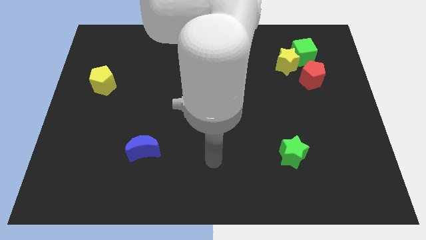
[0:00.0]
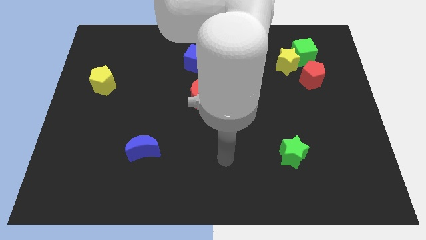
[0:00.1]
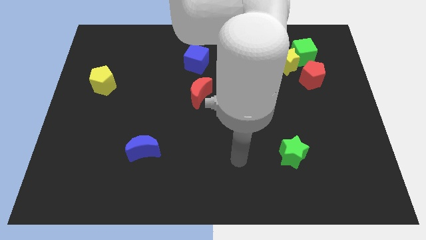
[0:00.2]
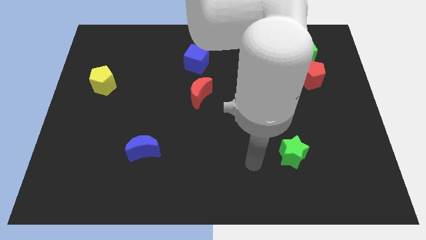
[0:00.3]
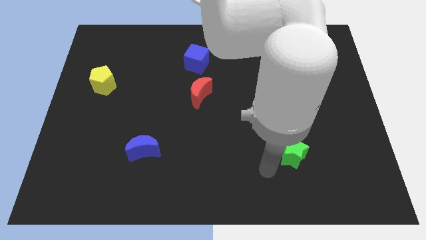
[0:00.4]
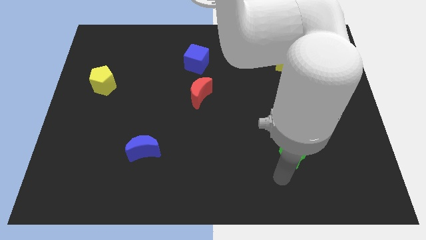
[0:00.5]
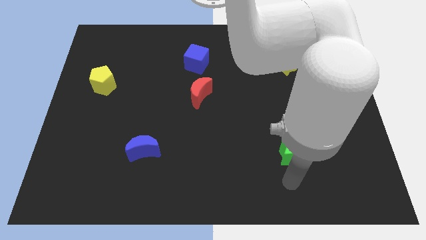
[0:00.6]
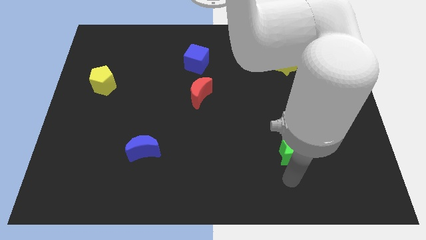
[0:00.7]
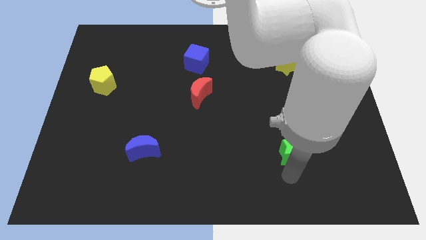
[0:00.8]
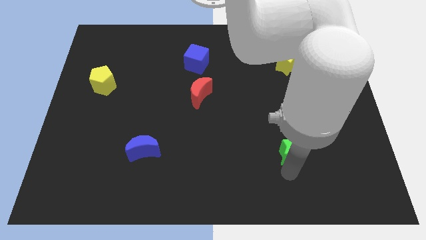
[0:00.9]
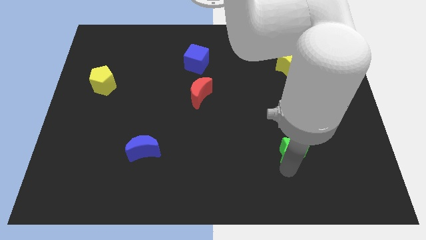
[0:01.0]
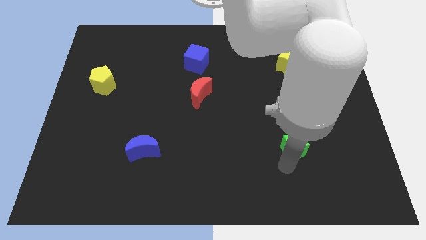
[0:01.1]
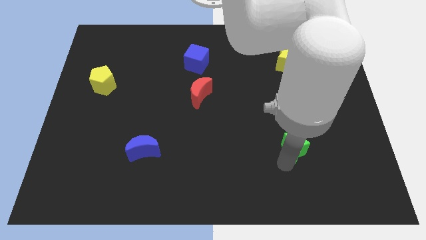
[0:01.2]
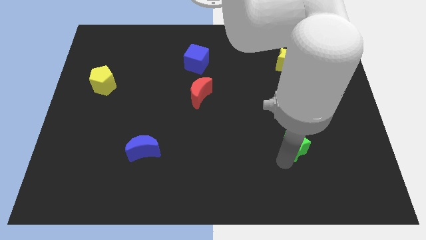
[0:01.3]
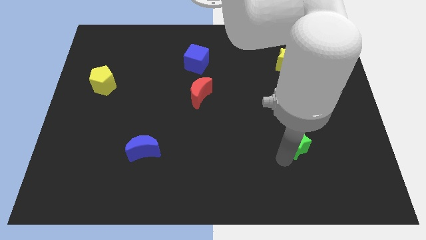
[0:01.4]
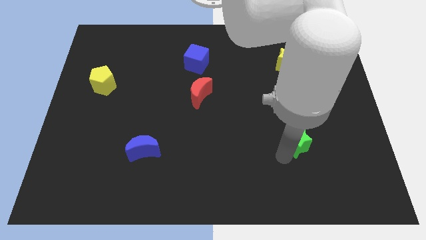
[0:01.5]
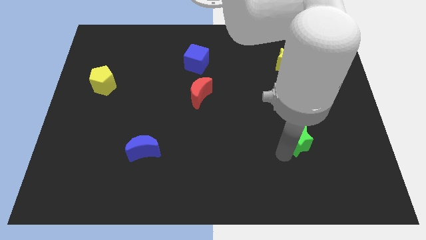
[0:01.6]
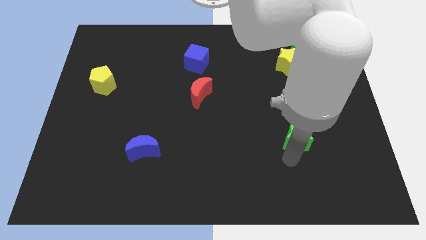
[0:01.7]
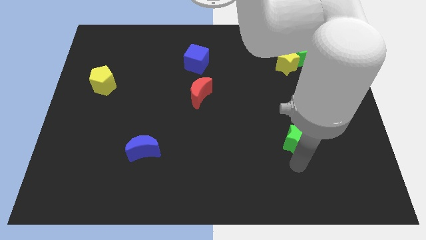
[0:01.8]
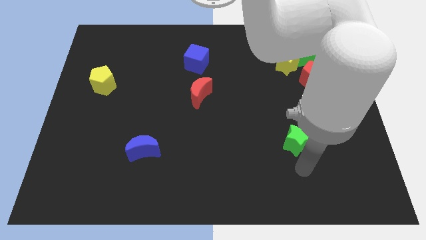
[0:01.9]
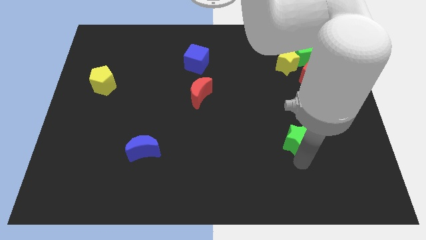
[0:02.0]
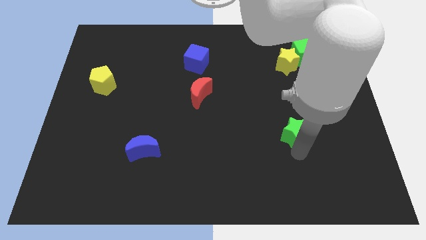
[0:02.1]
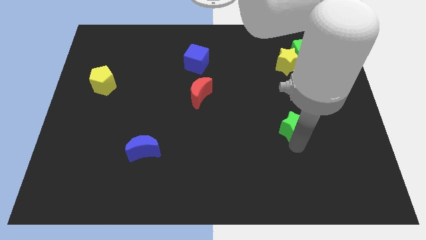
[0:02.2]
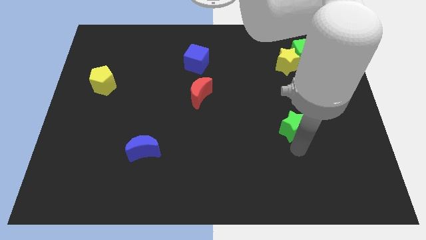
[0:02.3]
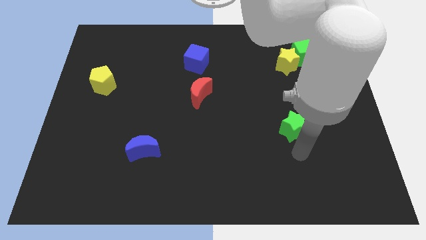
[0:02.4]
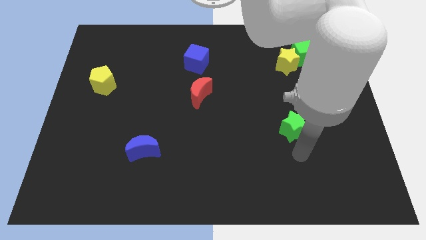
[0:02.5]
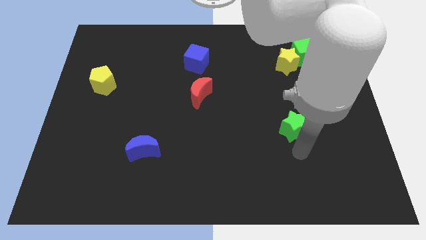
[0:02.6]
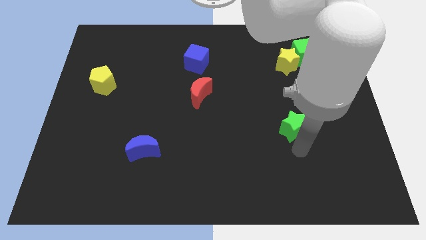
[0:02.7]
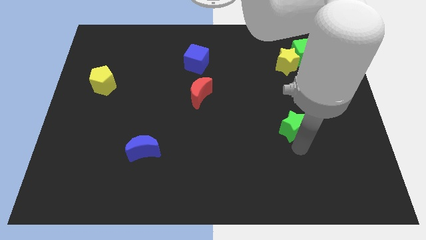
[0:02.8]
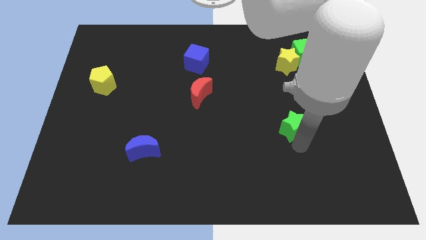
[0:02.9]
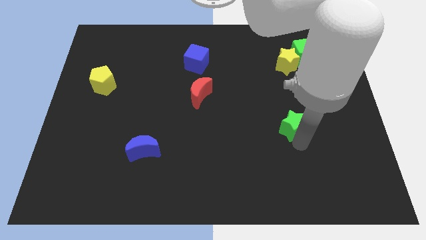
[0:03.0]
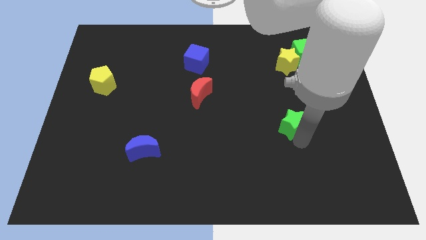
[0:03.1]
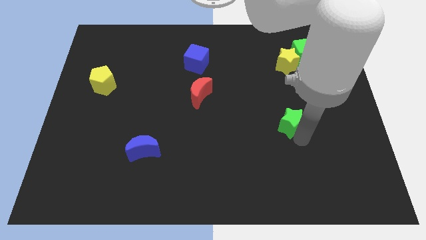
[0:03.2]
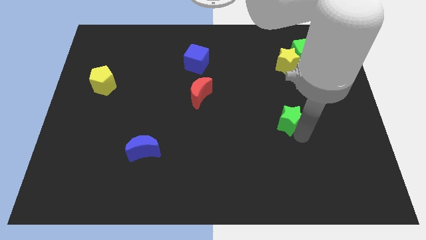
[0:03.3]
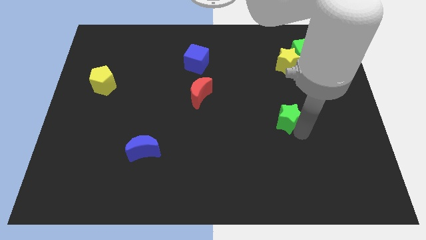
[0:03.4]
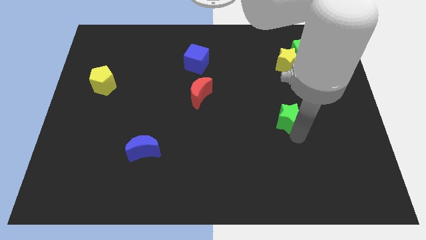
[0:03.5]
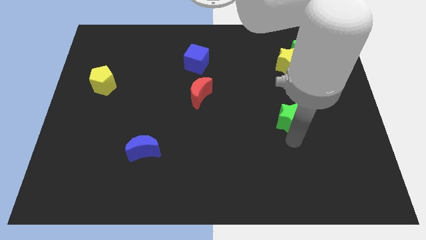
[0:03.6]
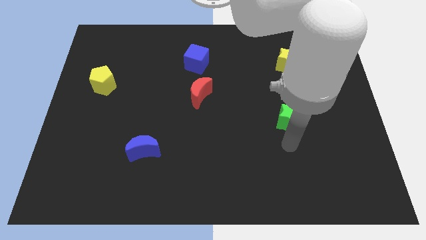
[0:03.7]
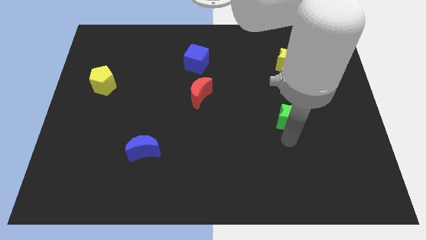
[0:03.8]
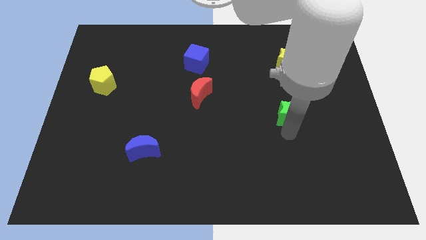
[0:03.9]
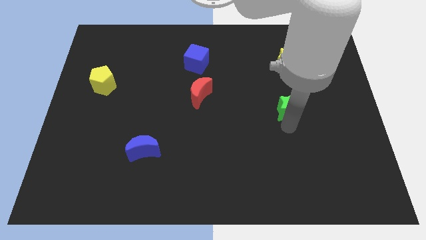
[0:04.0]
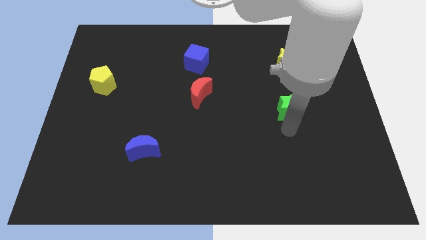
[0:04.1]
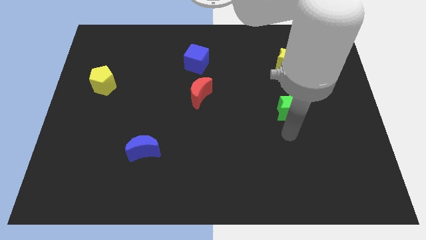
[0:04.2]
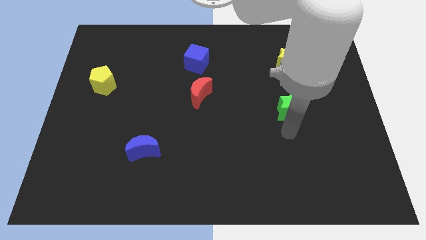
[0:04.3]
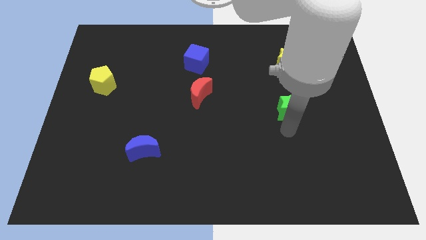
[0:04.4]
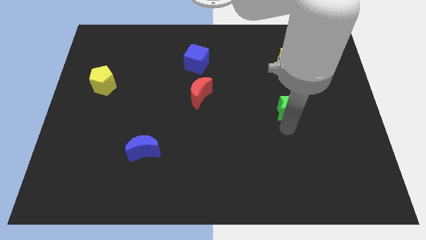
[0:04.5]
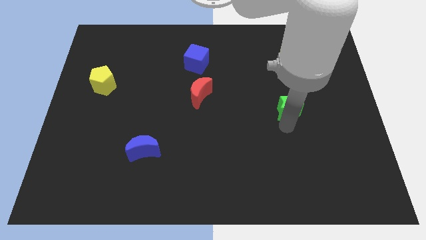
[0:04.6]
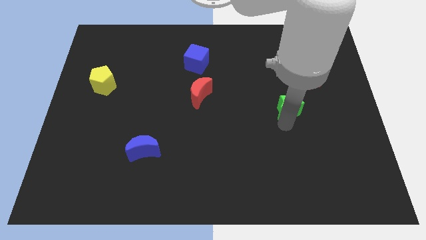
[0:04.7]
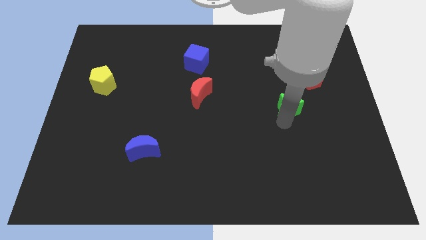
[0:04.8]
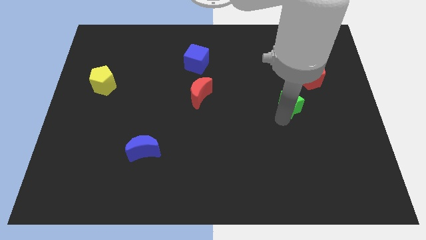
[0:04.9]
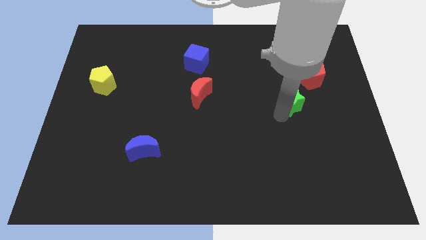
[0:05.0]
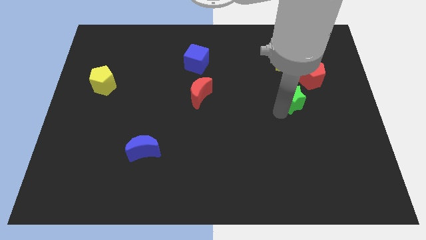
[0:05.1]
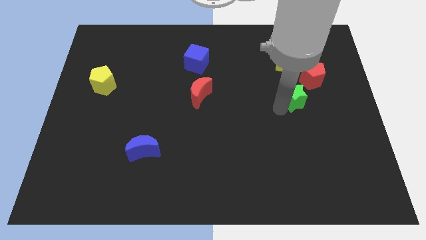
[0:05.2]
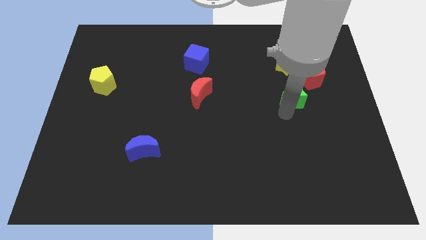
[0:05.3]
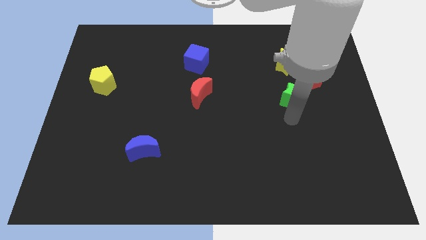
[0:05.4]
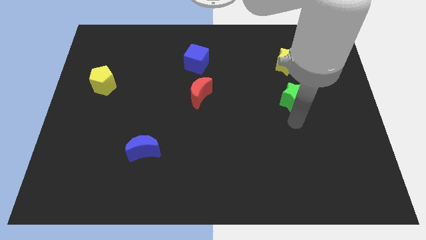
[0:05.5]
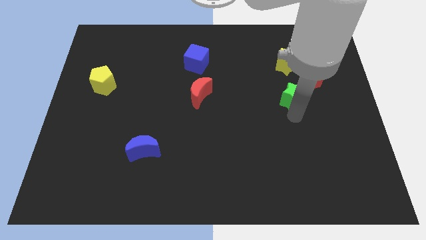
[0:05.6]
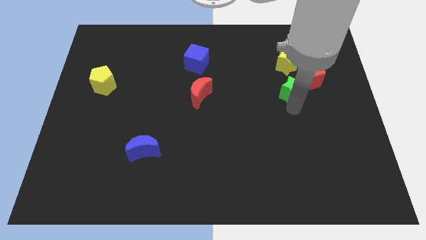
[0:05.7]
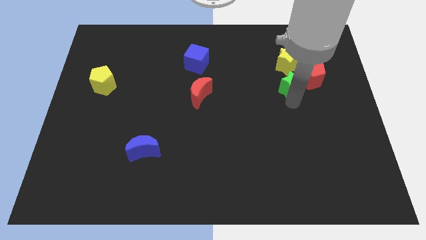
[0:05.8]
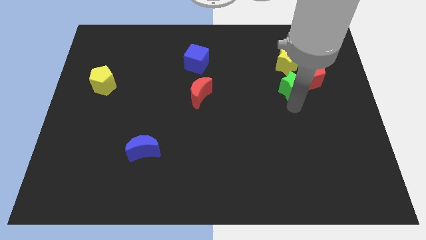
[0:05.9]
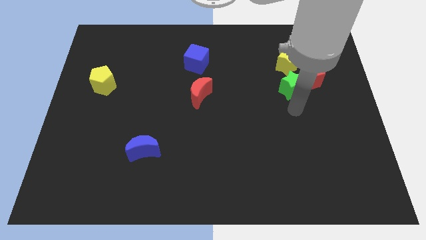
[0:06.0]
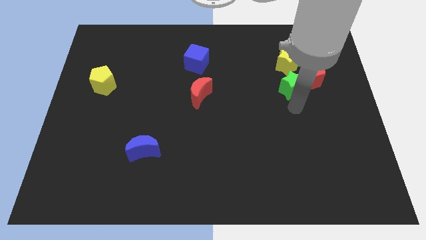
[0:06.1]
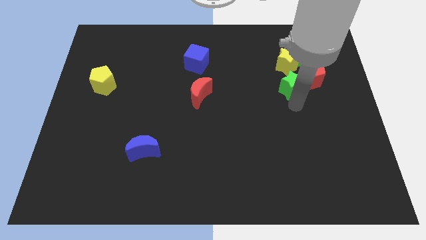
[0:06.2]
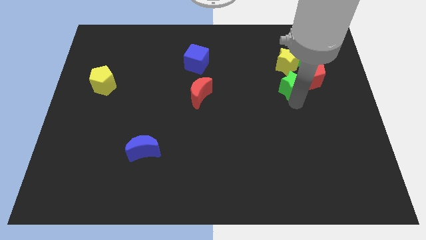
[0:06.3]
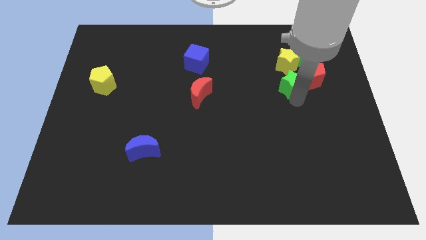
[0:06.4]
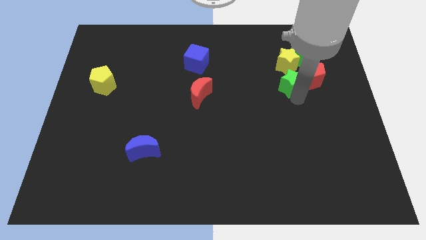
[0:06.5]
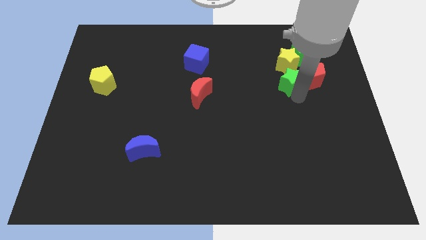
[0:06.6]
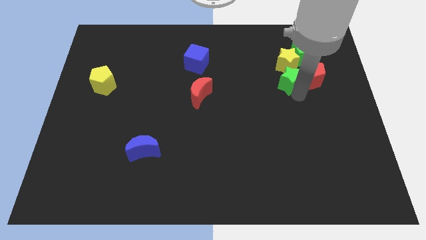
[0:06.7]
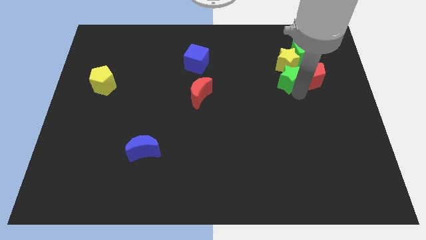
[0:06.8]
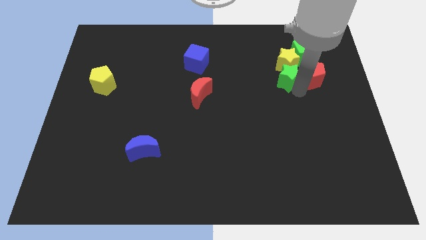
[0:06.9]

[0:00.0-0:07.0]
slide the green star close to the yellow star

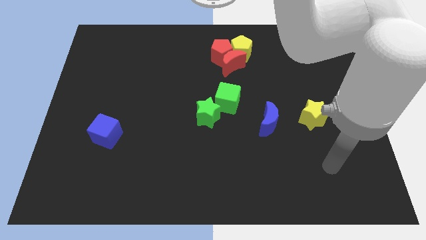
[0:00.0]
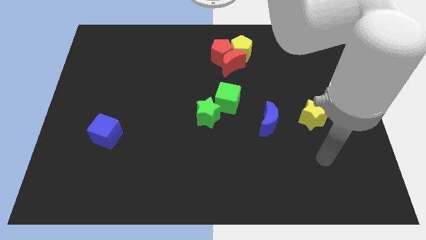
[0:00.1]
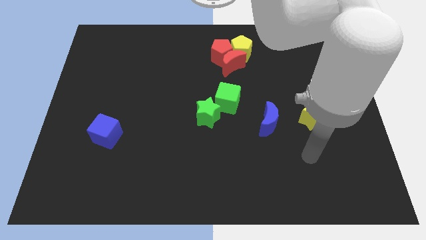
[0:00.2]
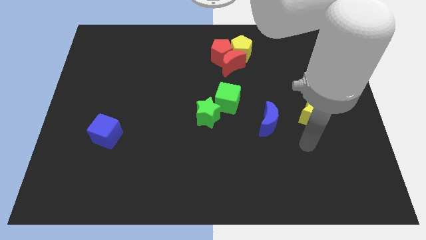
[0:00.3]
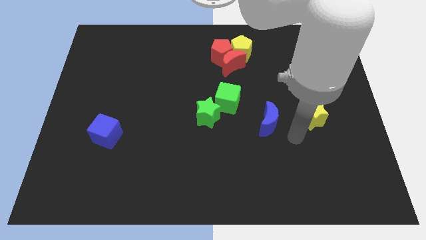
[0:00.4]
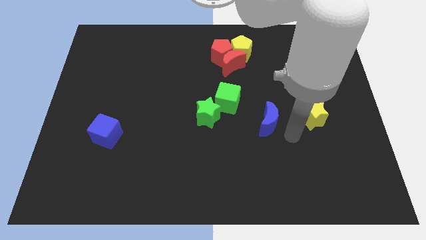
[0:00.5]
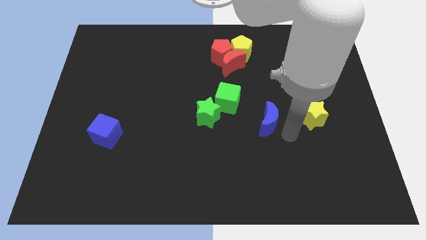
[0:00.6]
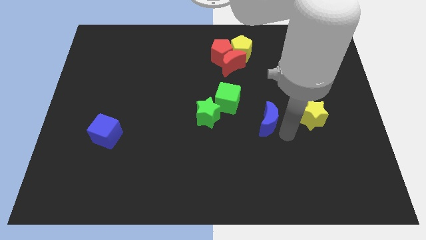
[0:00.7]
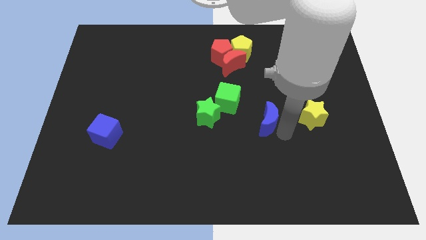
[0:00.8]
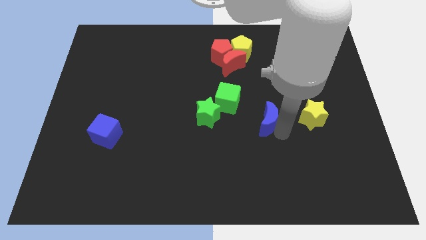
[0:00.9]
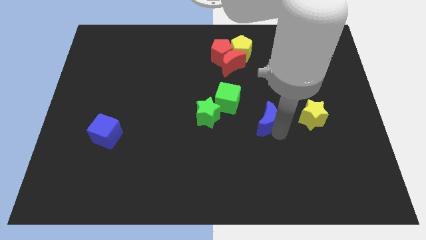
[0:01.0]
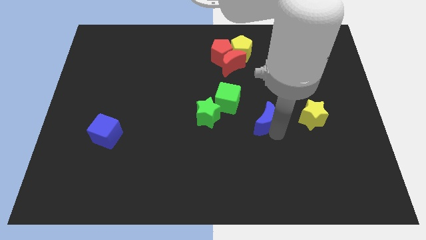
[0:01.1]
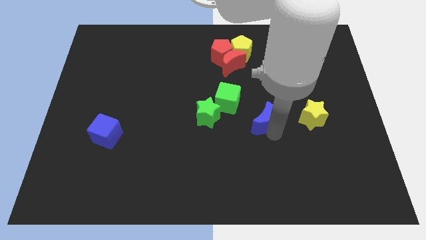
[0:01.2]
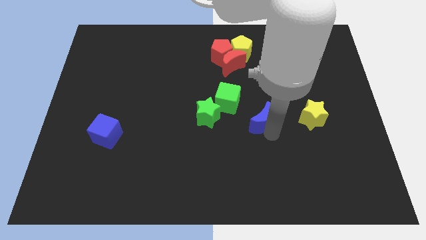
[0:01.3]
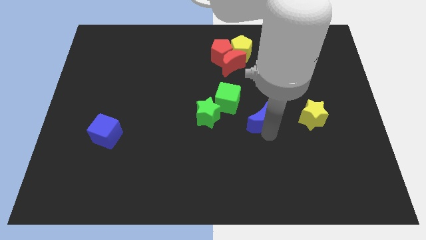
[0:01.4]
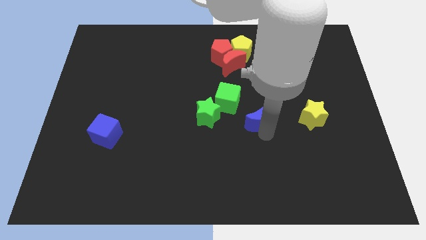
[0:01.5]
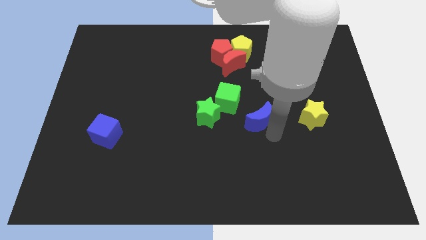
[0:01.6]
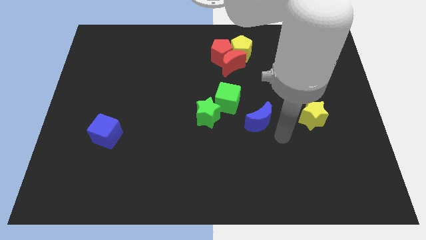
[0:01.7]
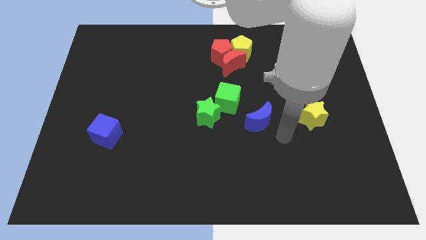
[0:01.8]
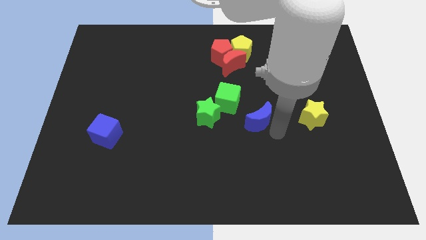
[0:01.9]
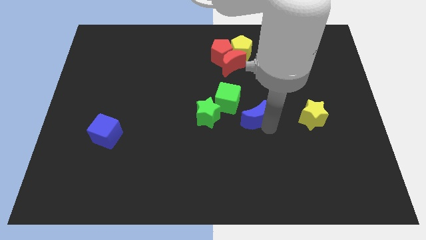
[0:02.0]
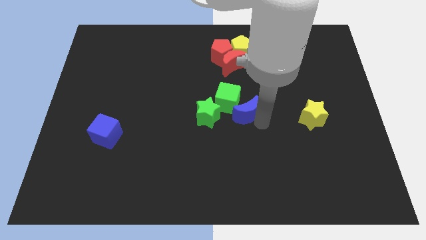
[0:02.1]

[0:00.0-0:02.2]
slide the blue moon next to the green cube
